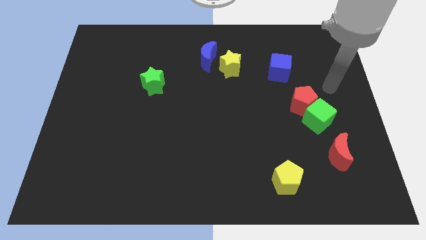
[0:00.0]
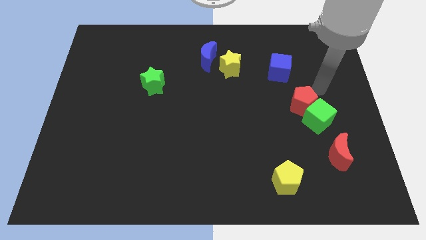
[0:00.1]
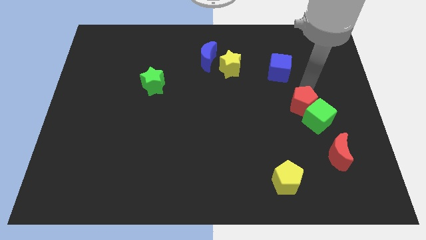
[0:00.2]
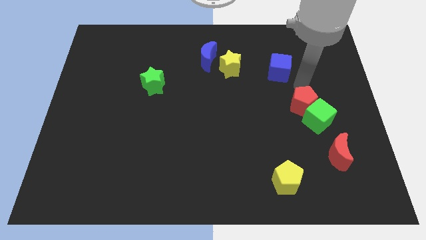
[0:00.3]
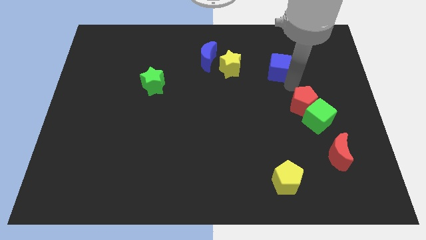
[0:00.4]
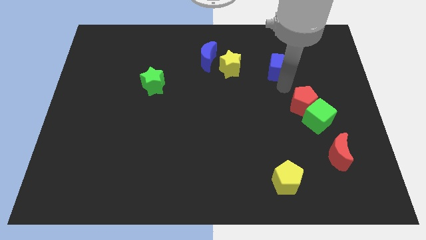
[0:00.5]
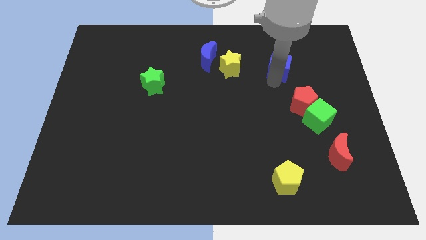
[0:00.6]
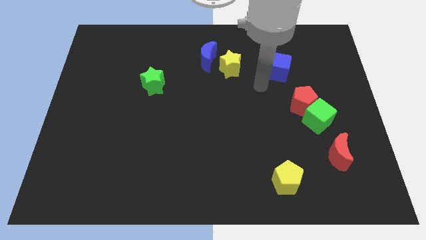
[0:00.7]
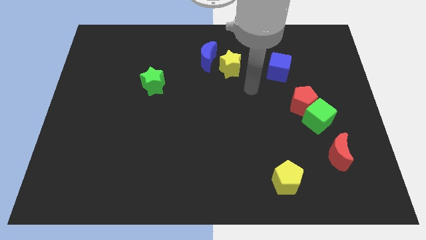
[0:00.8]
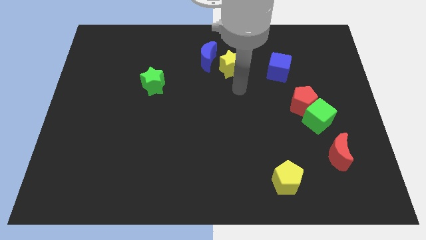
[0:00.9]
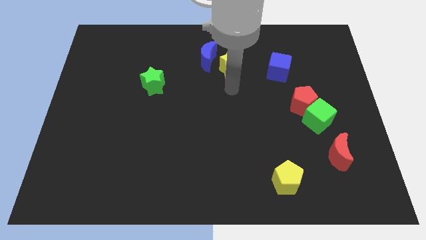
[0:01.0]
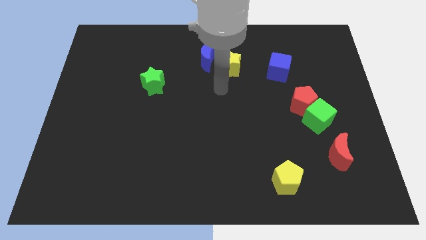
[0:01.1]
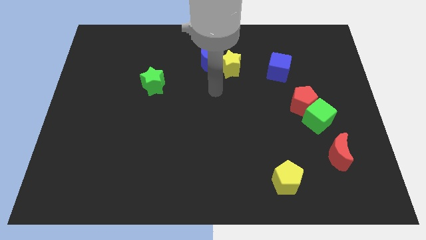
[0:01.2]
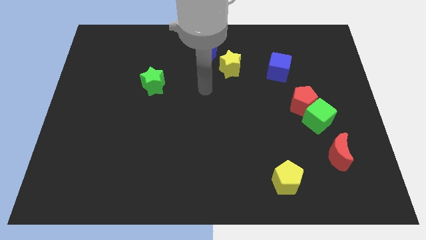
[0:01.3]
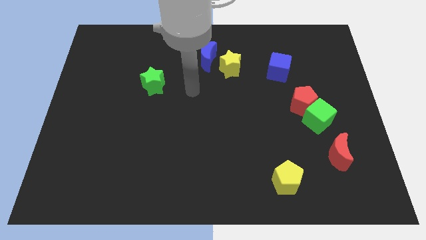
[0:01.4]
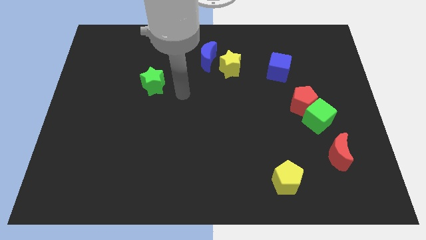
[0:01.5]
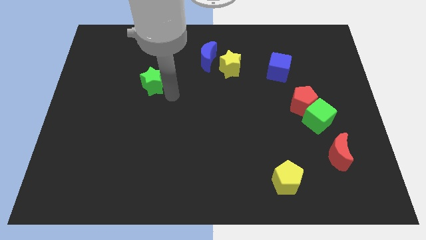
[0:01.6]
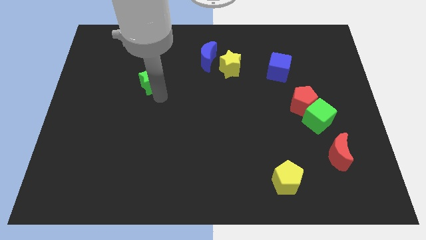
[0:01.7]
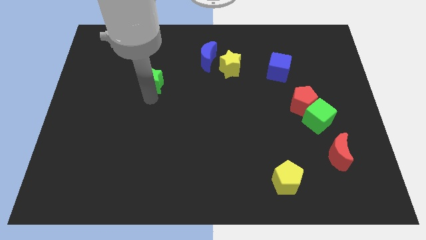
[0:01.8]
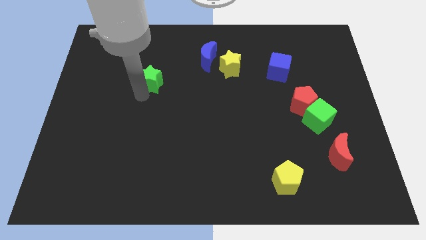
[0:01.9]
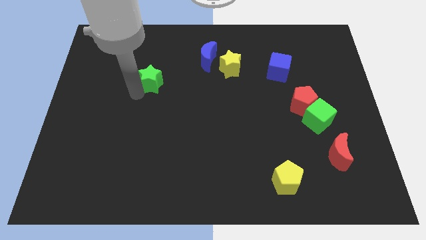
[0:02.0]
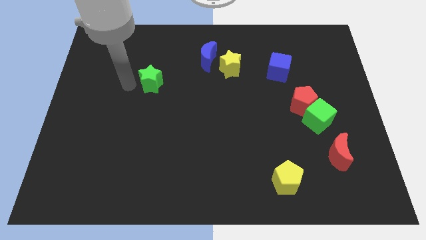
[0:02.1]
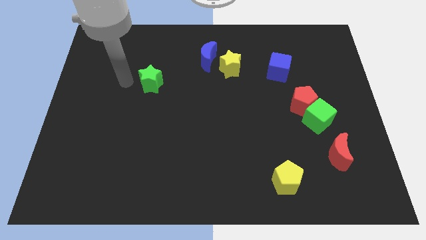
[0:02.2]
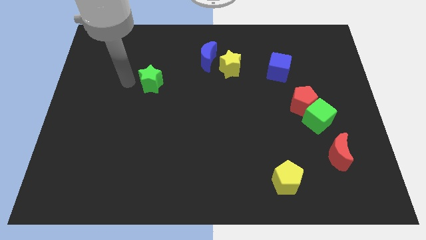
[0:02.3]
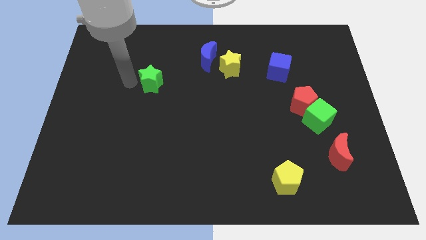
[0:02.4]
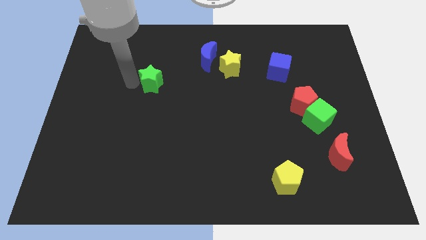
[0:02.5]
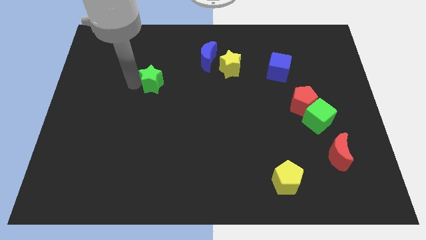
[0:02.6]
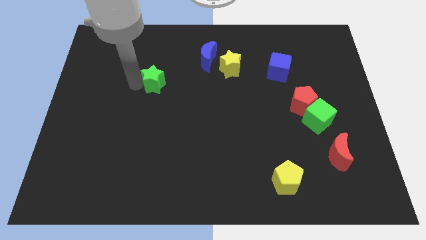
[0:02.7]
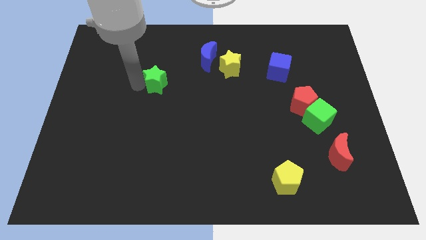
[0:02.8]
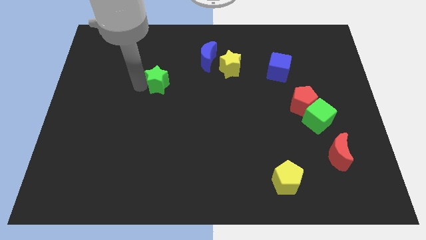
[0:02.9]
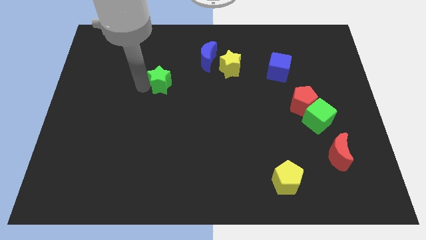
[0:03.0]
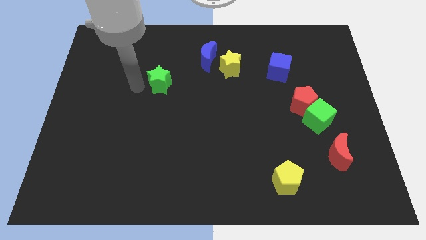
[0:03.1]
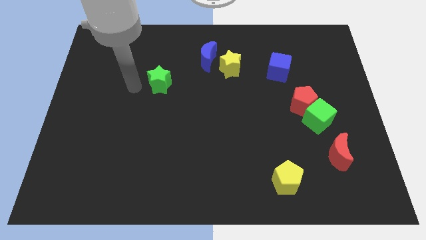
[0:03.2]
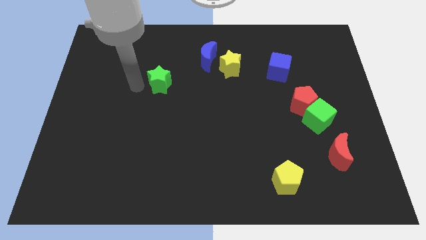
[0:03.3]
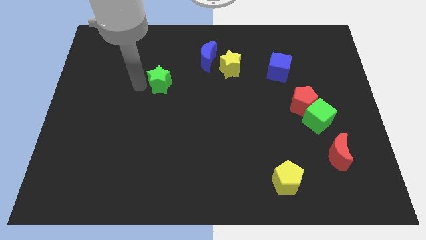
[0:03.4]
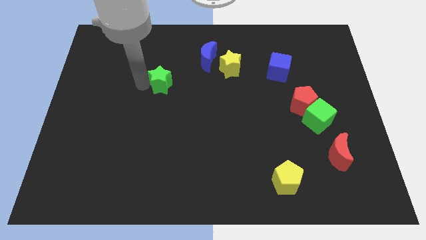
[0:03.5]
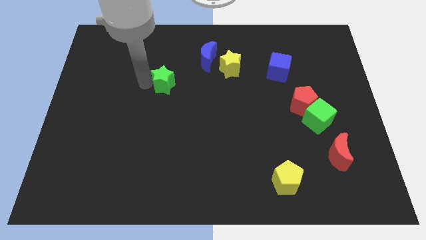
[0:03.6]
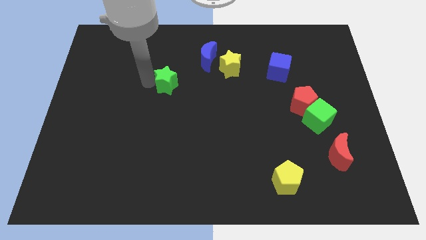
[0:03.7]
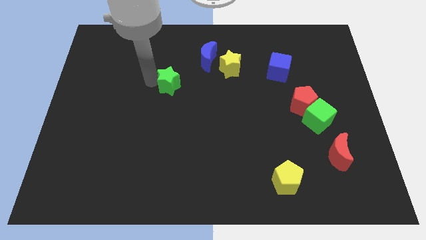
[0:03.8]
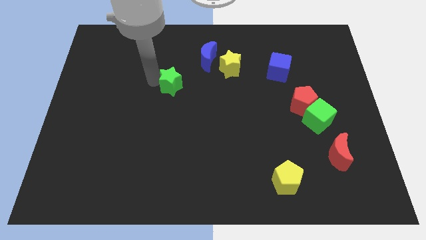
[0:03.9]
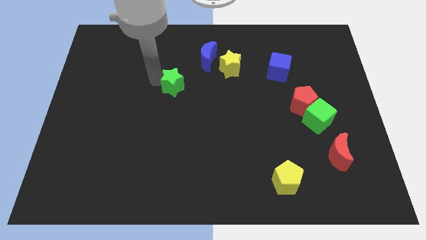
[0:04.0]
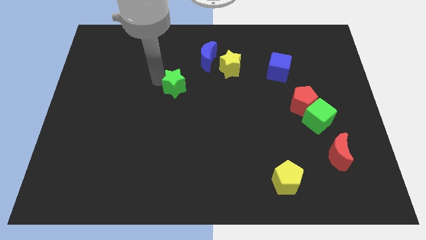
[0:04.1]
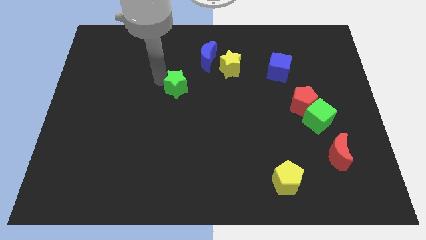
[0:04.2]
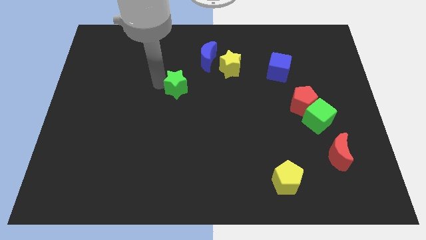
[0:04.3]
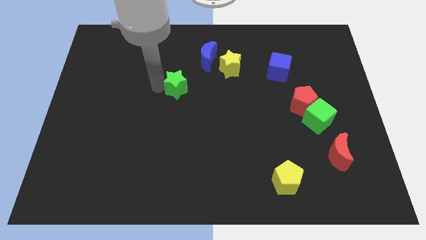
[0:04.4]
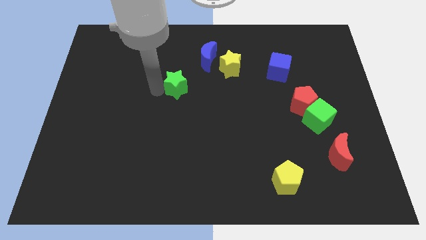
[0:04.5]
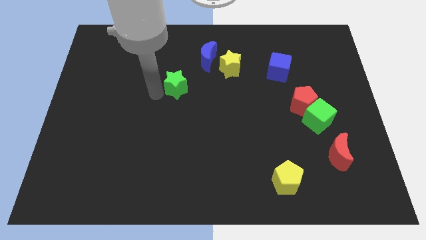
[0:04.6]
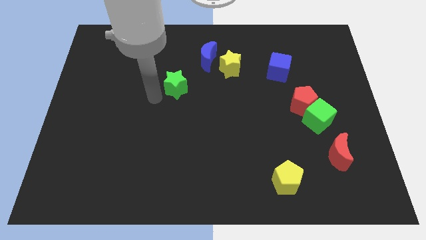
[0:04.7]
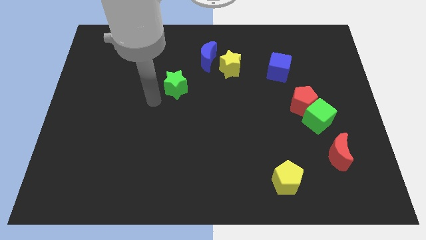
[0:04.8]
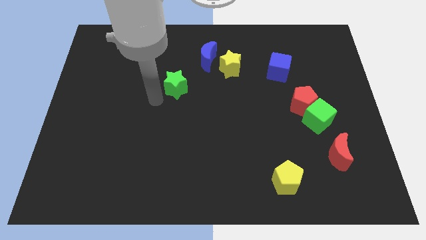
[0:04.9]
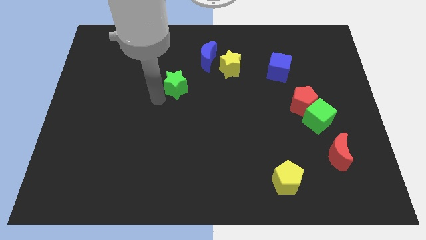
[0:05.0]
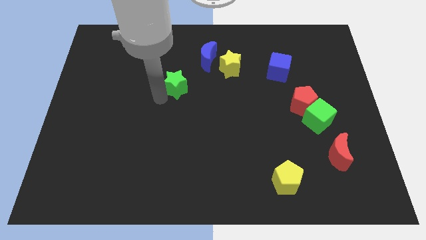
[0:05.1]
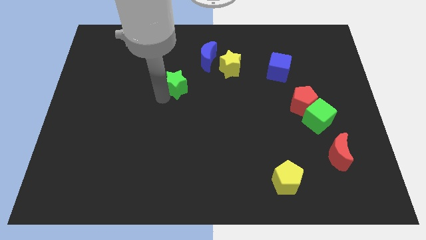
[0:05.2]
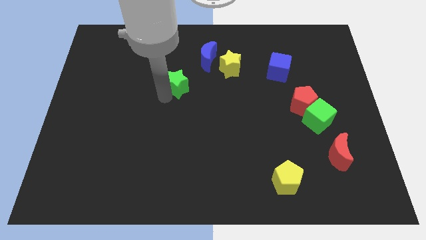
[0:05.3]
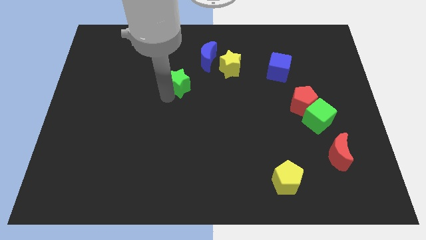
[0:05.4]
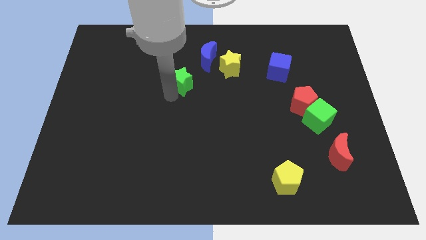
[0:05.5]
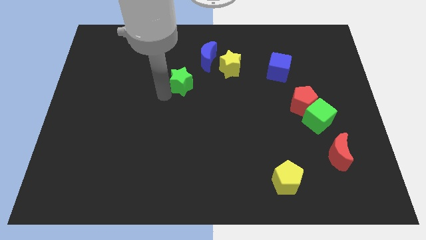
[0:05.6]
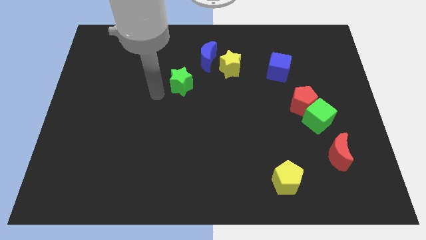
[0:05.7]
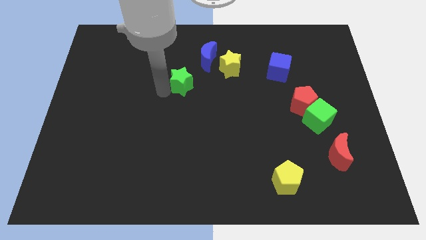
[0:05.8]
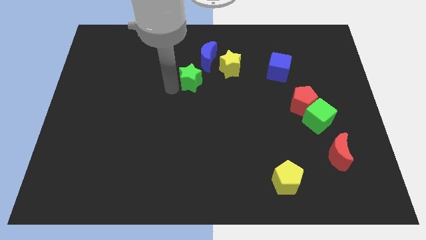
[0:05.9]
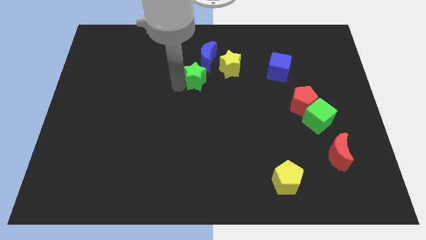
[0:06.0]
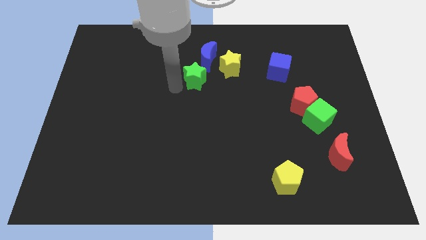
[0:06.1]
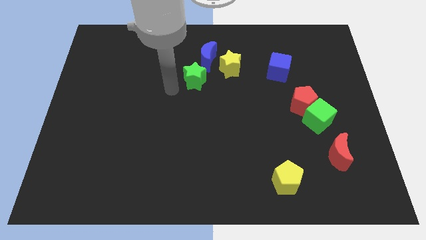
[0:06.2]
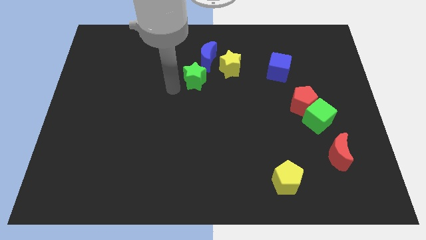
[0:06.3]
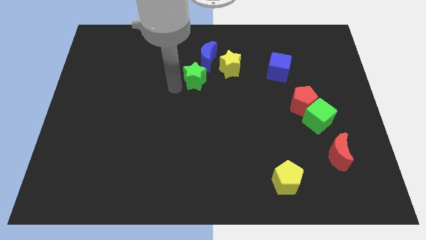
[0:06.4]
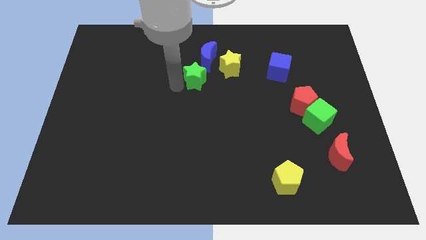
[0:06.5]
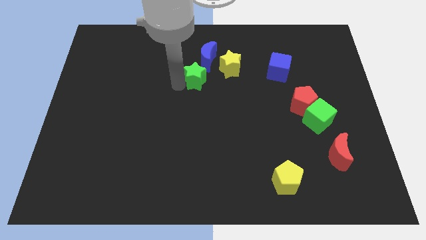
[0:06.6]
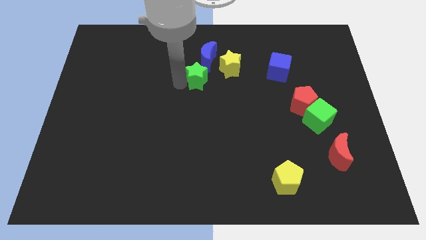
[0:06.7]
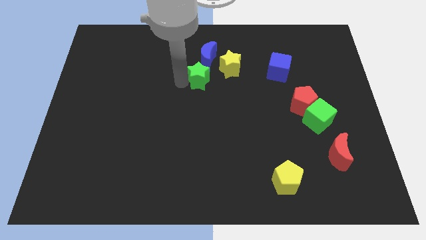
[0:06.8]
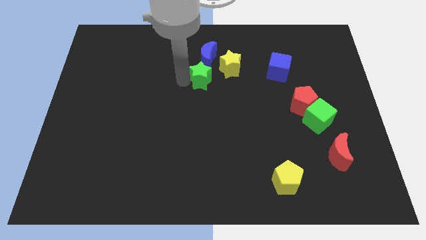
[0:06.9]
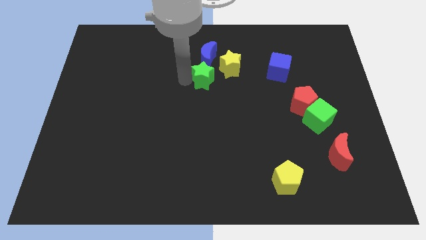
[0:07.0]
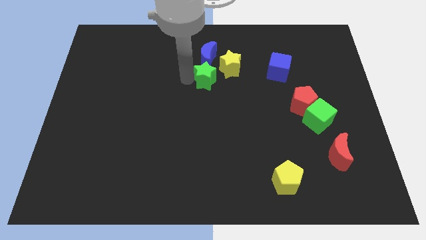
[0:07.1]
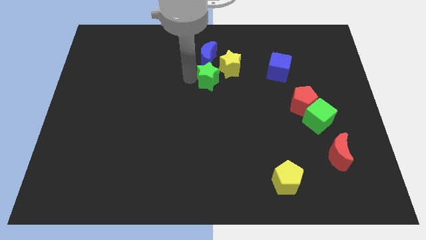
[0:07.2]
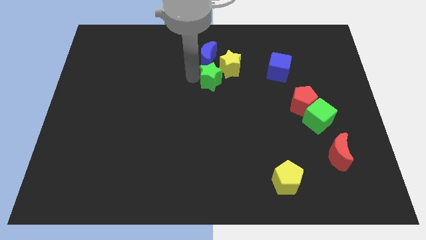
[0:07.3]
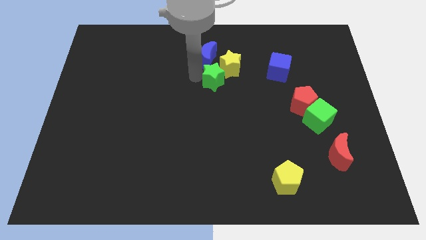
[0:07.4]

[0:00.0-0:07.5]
slide the green star to the yellow star

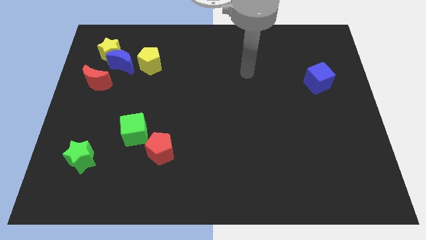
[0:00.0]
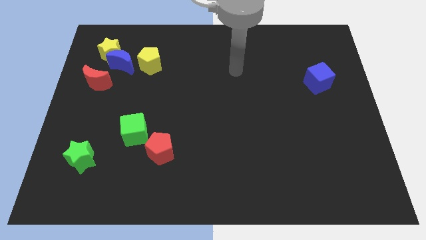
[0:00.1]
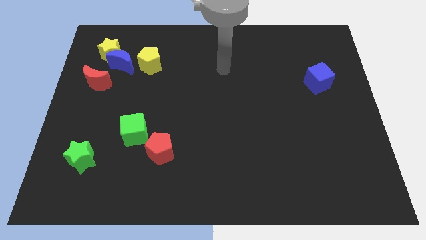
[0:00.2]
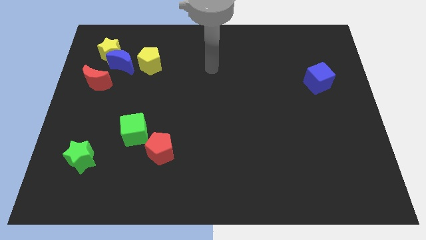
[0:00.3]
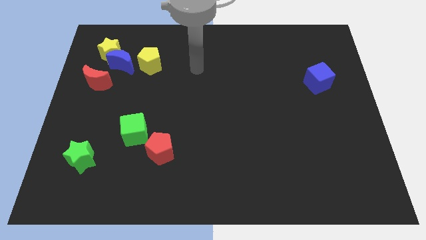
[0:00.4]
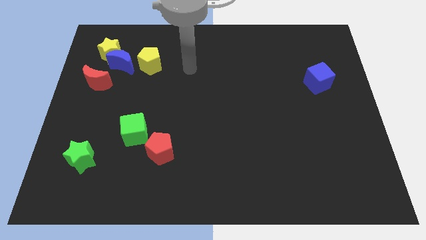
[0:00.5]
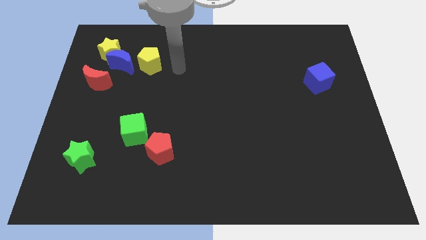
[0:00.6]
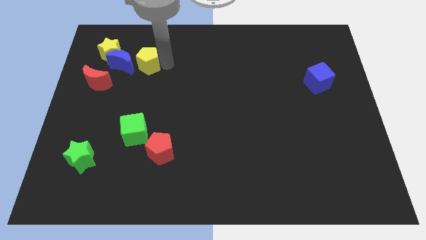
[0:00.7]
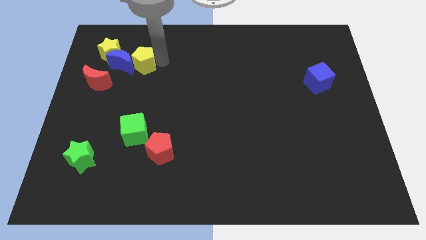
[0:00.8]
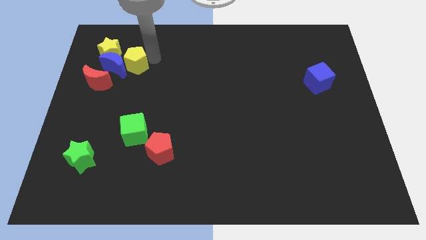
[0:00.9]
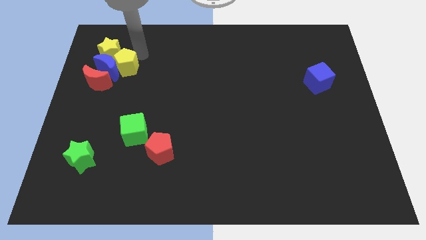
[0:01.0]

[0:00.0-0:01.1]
move the blue moon next to the red moon
